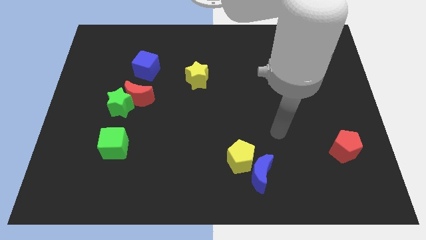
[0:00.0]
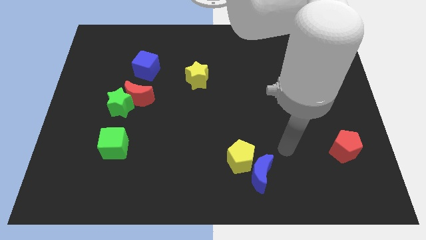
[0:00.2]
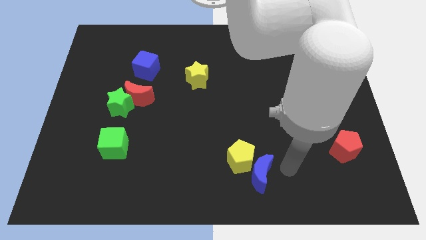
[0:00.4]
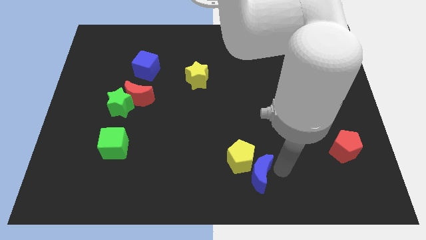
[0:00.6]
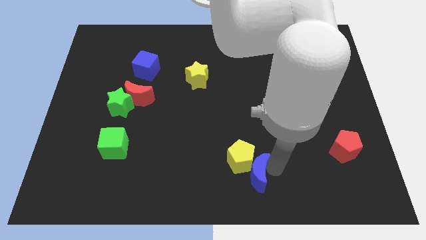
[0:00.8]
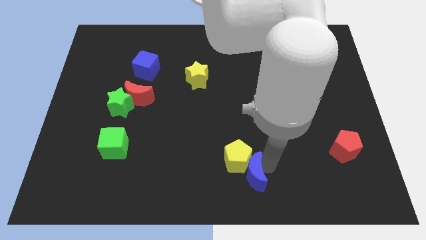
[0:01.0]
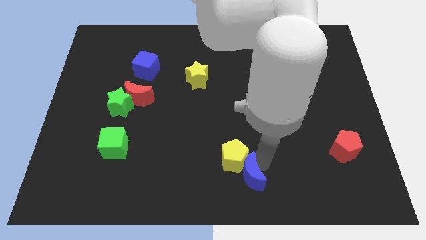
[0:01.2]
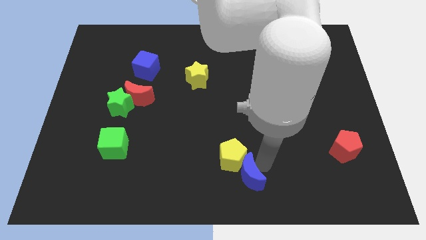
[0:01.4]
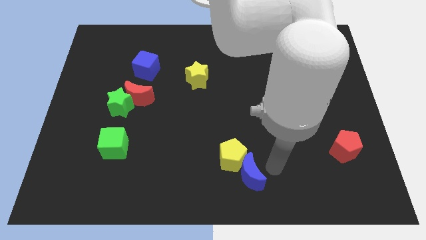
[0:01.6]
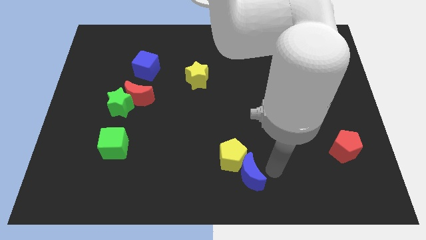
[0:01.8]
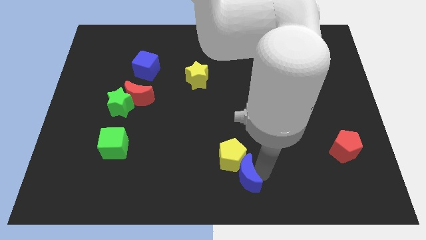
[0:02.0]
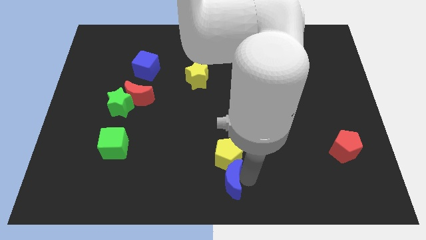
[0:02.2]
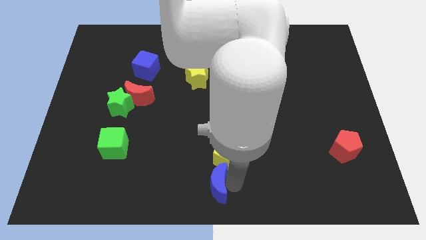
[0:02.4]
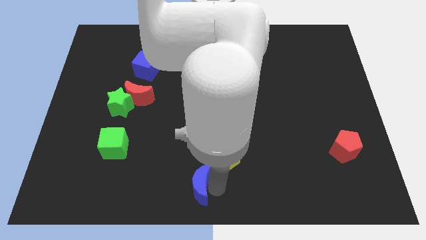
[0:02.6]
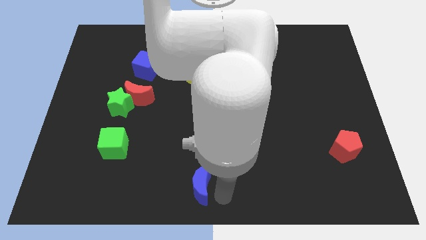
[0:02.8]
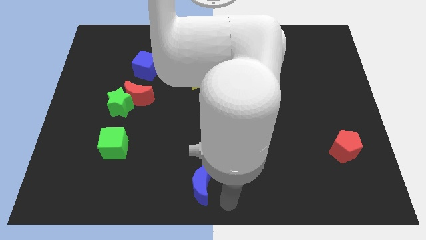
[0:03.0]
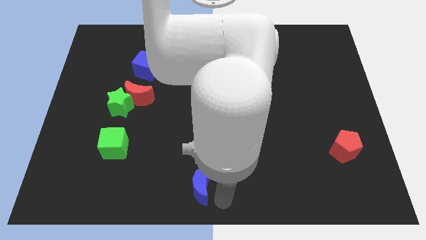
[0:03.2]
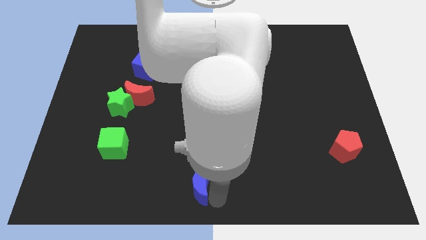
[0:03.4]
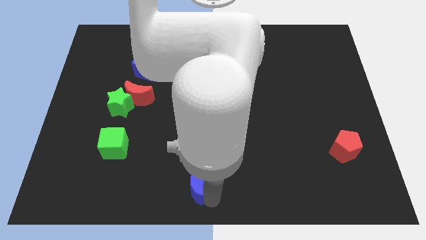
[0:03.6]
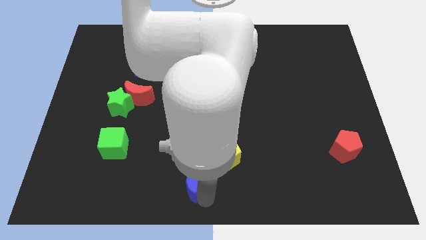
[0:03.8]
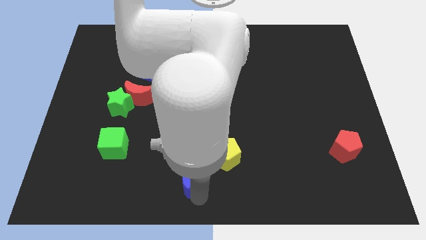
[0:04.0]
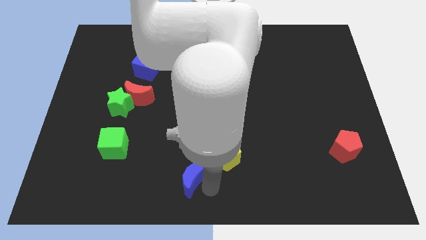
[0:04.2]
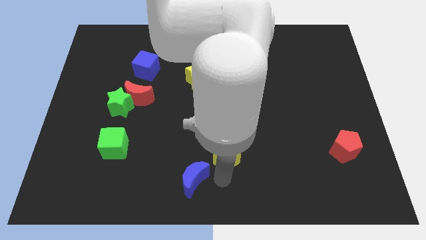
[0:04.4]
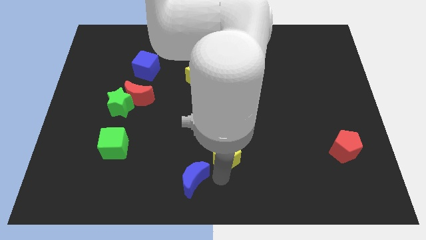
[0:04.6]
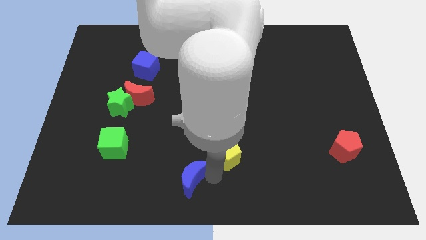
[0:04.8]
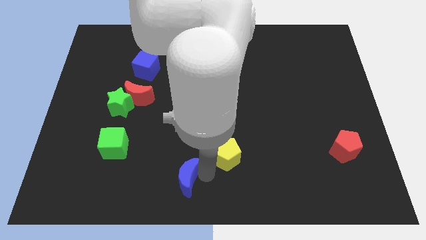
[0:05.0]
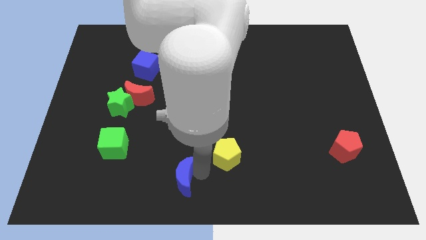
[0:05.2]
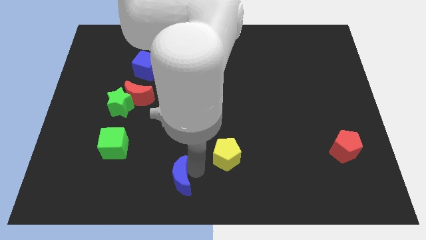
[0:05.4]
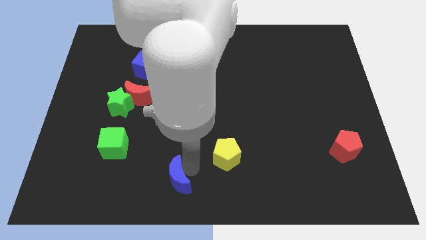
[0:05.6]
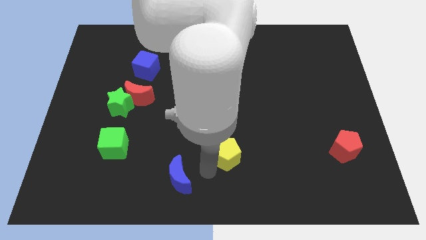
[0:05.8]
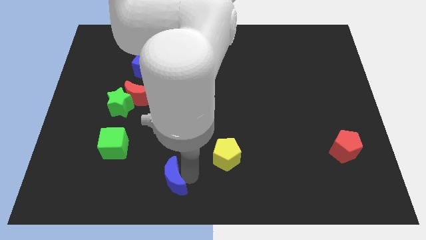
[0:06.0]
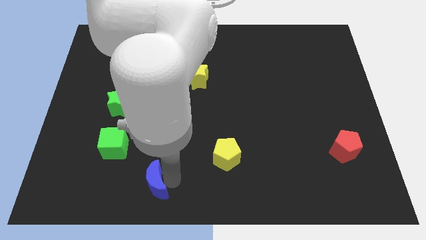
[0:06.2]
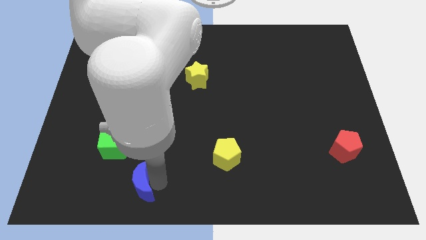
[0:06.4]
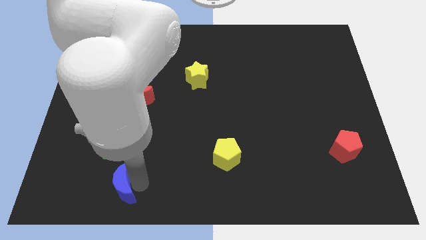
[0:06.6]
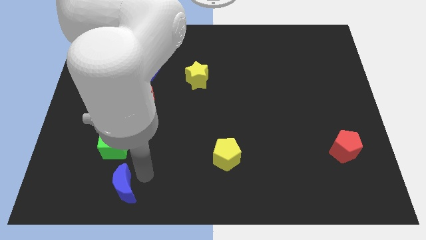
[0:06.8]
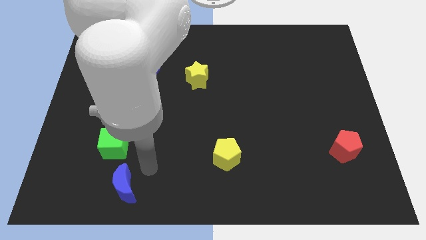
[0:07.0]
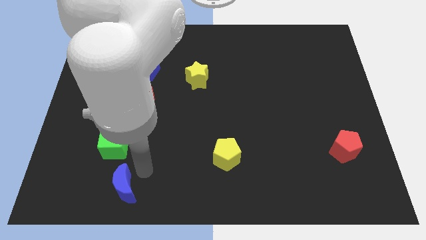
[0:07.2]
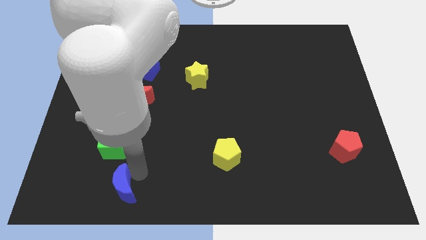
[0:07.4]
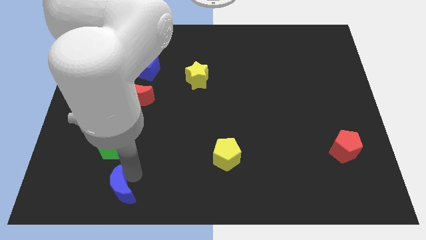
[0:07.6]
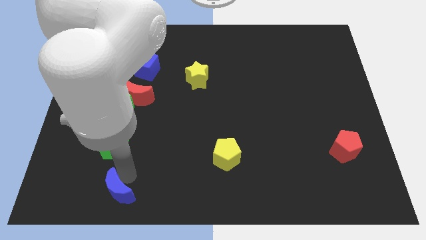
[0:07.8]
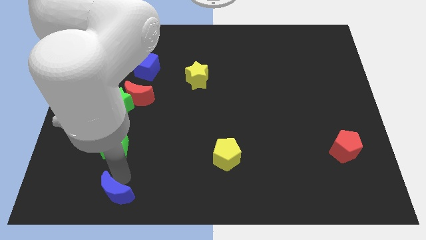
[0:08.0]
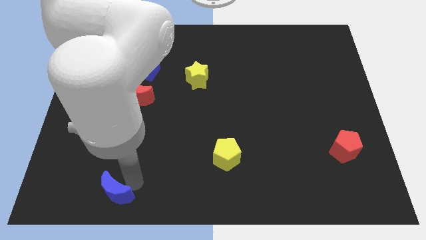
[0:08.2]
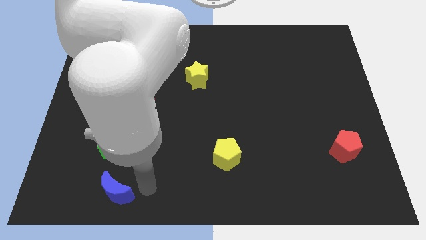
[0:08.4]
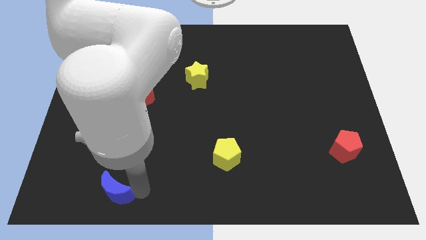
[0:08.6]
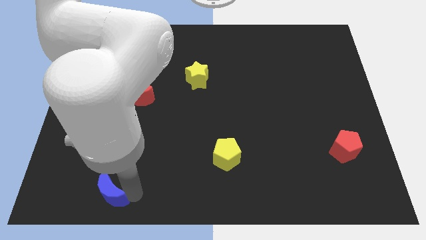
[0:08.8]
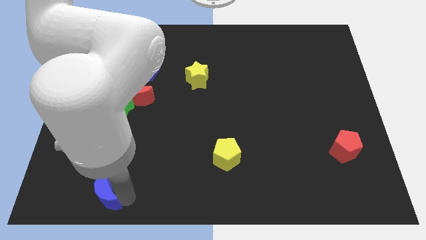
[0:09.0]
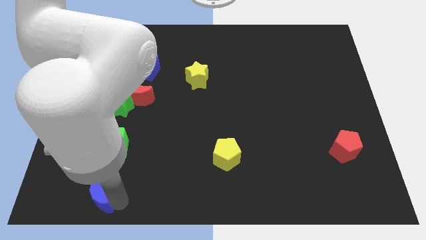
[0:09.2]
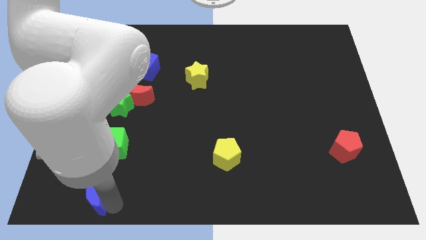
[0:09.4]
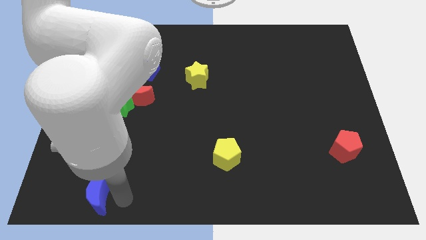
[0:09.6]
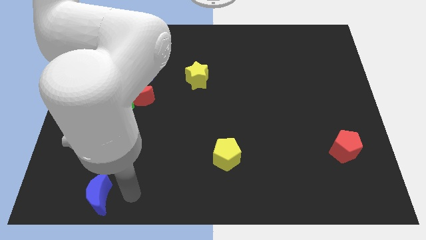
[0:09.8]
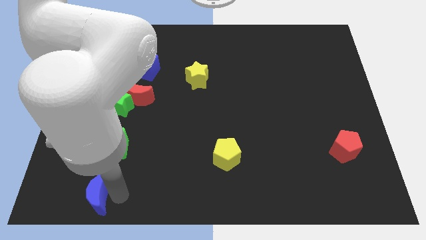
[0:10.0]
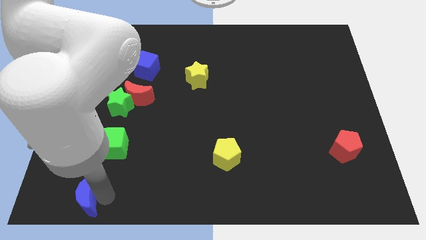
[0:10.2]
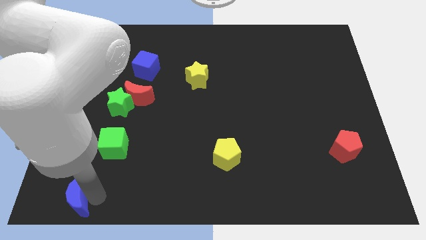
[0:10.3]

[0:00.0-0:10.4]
put the blue moon to the bottom left
